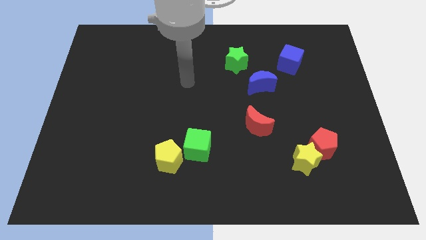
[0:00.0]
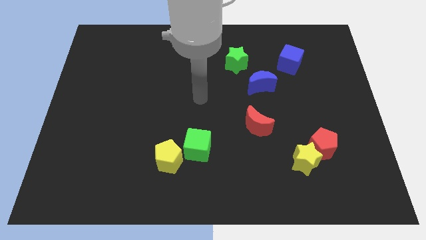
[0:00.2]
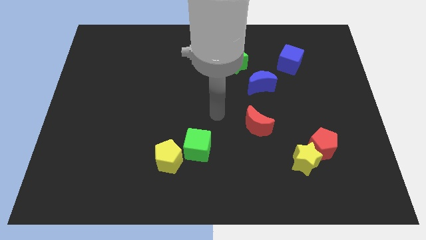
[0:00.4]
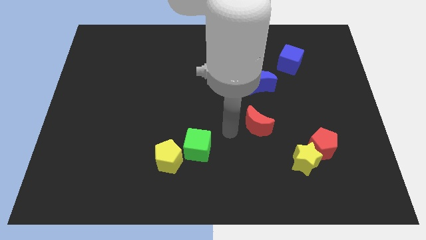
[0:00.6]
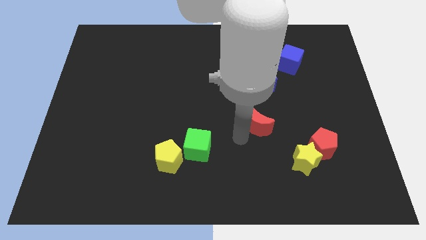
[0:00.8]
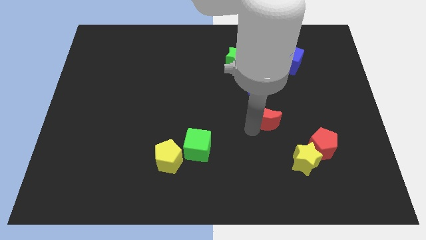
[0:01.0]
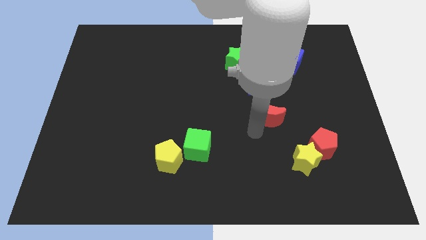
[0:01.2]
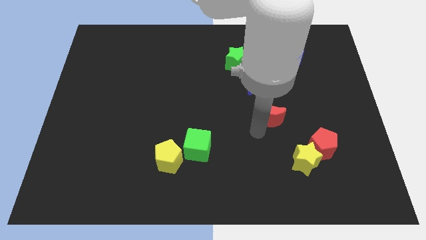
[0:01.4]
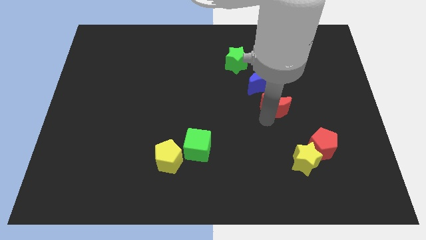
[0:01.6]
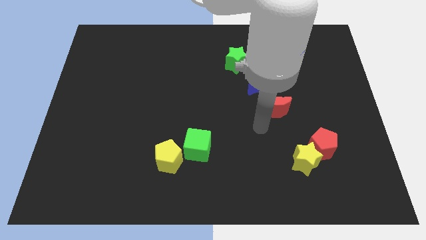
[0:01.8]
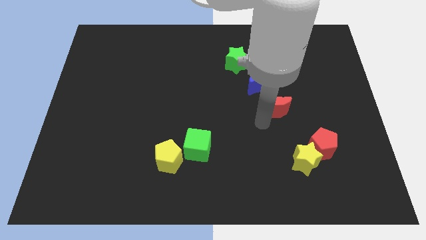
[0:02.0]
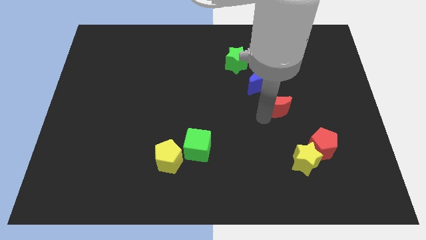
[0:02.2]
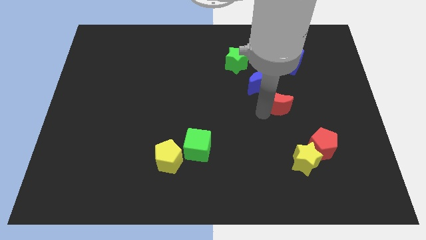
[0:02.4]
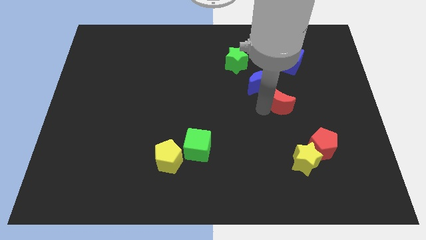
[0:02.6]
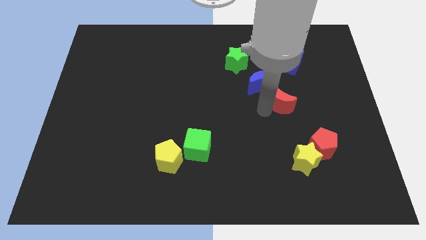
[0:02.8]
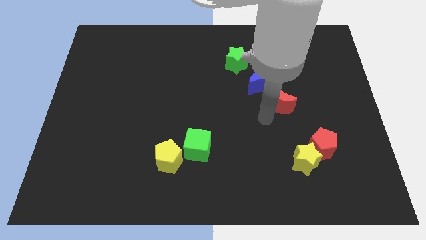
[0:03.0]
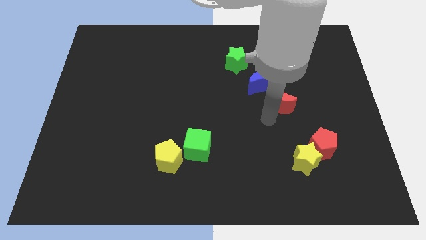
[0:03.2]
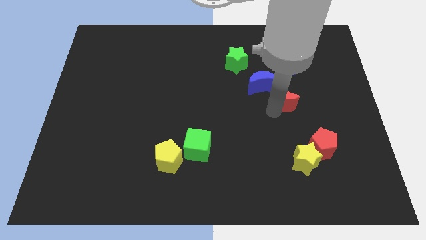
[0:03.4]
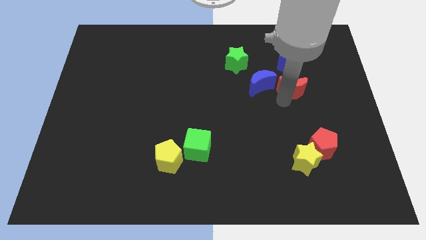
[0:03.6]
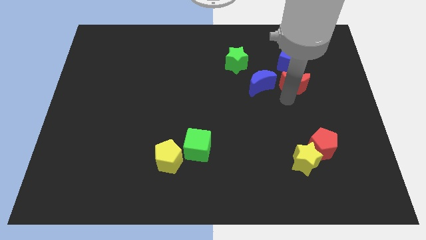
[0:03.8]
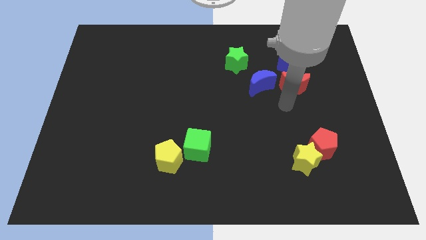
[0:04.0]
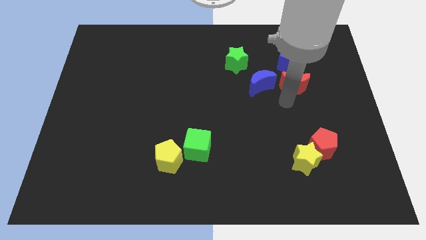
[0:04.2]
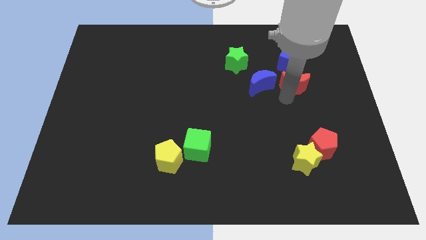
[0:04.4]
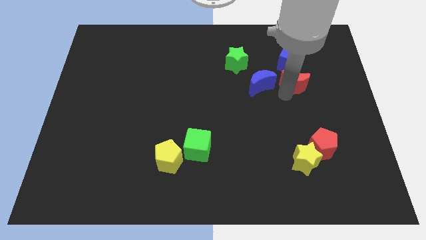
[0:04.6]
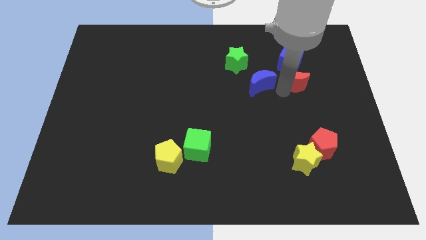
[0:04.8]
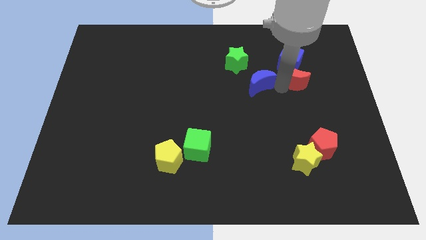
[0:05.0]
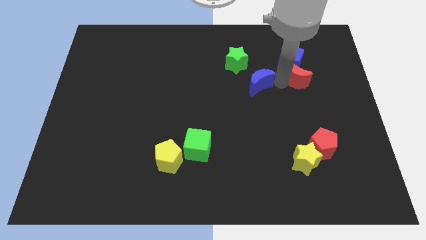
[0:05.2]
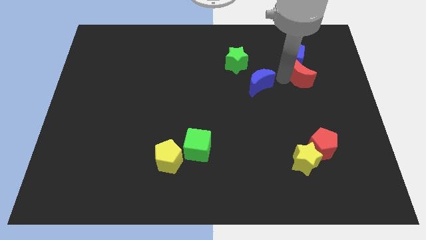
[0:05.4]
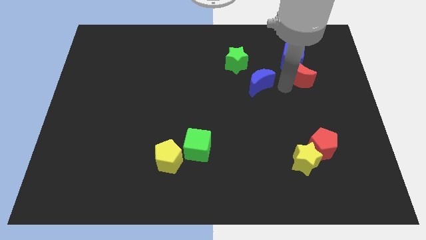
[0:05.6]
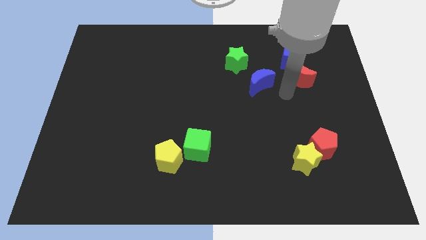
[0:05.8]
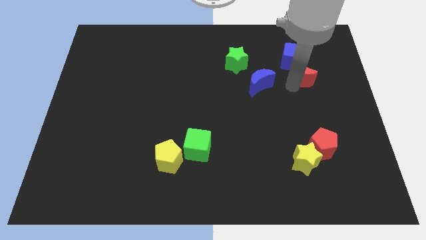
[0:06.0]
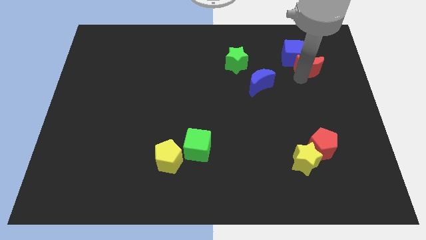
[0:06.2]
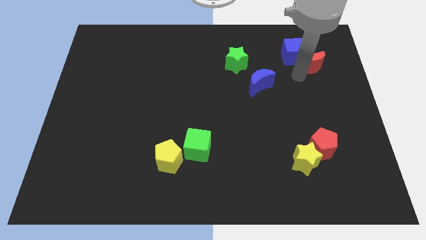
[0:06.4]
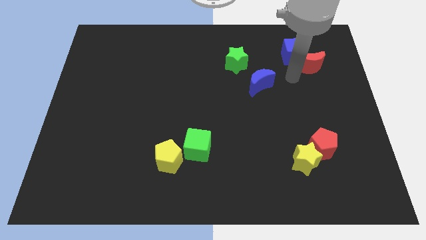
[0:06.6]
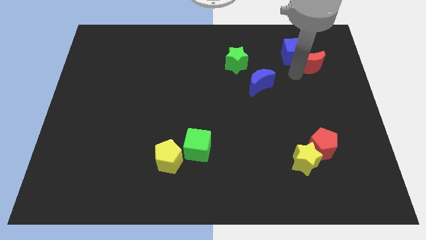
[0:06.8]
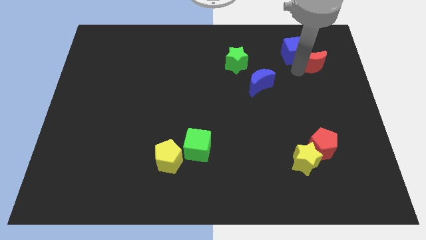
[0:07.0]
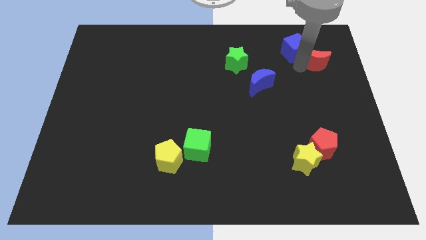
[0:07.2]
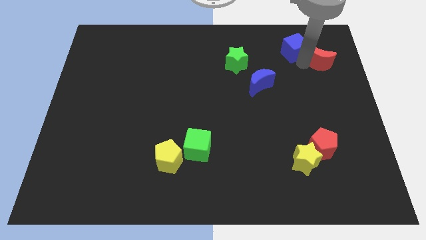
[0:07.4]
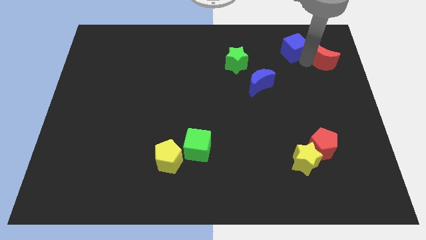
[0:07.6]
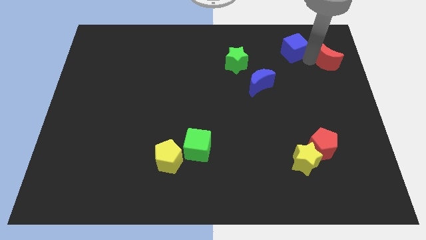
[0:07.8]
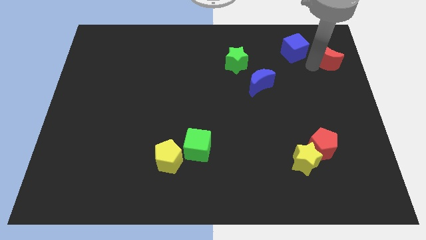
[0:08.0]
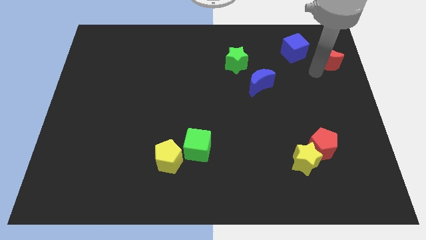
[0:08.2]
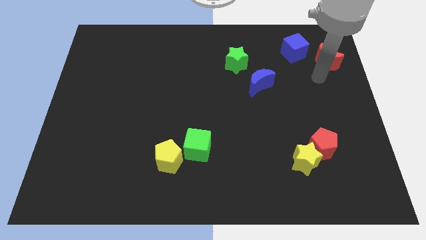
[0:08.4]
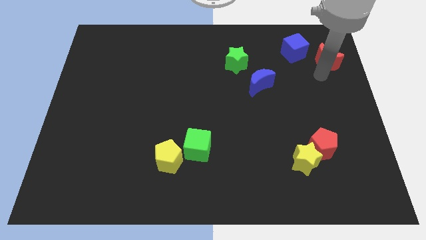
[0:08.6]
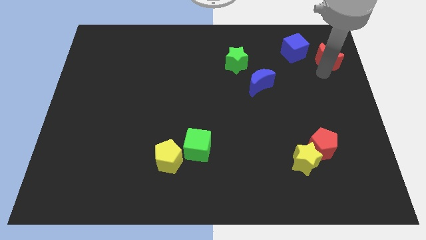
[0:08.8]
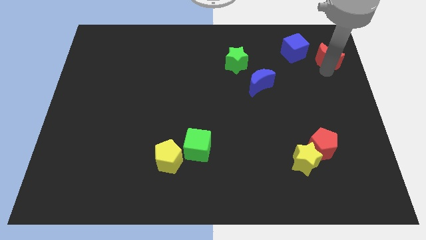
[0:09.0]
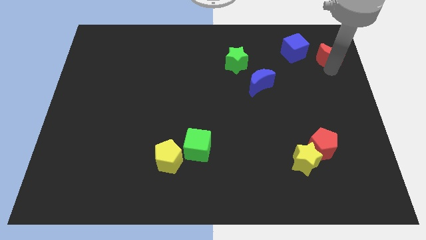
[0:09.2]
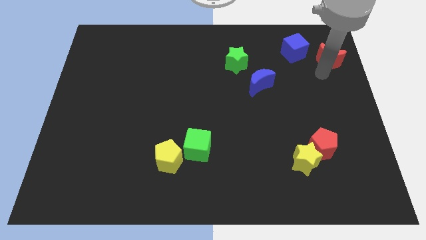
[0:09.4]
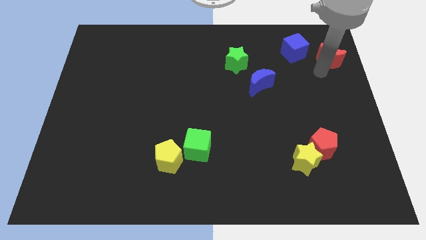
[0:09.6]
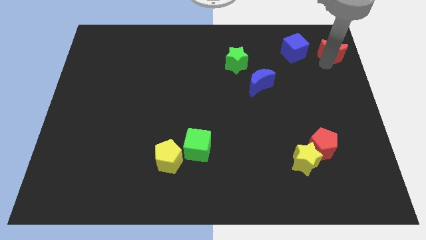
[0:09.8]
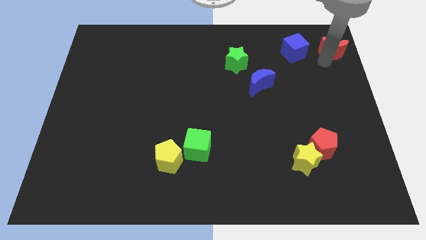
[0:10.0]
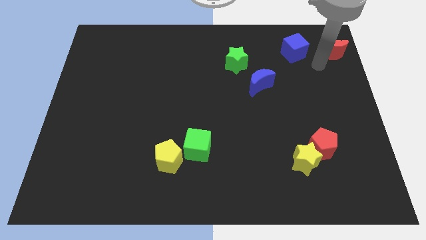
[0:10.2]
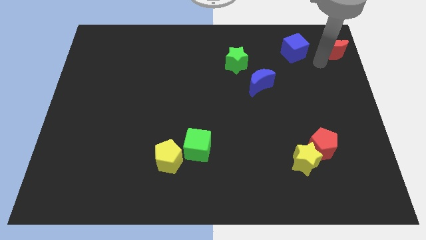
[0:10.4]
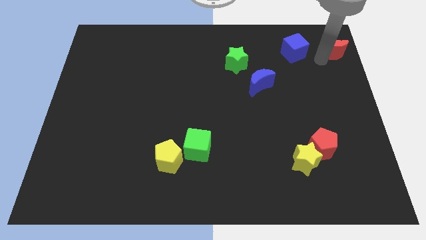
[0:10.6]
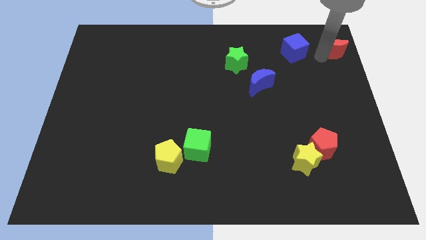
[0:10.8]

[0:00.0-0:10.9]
slide the red moon to the top right

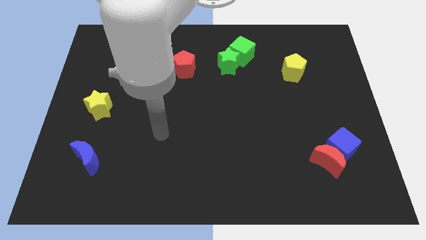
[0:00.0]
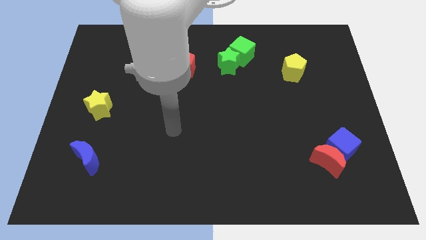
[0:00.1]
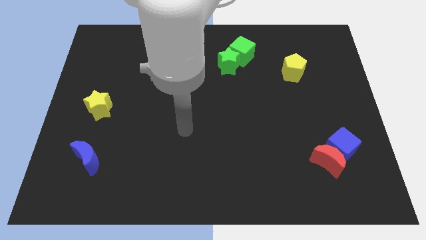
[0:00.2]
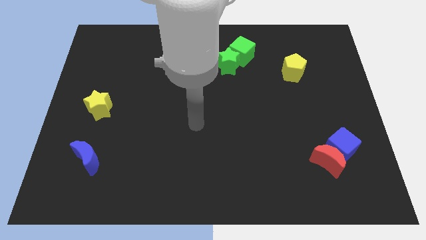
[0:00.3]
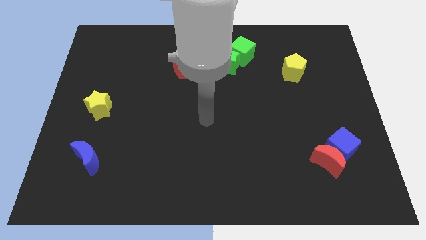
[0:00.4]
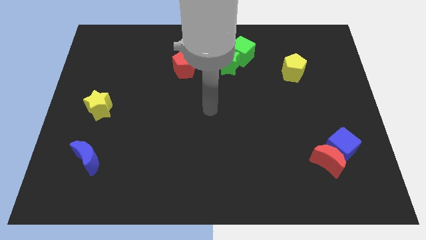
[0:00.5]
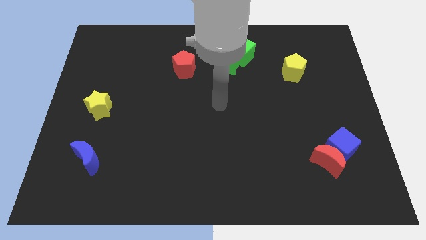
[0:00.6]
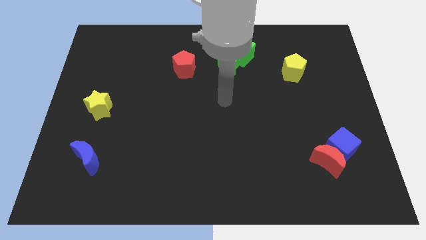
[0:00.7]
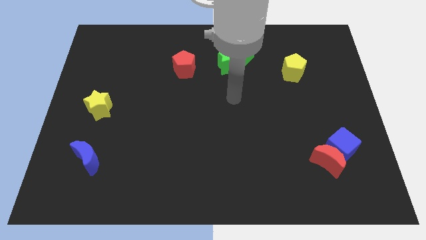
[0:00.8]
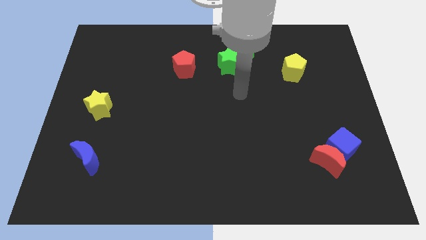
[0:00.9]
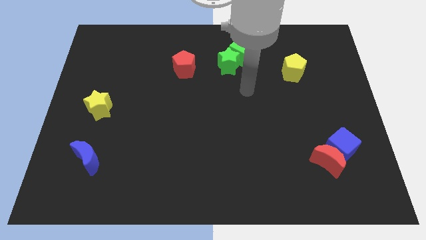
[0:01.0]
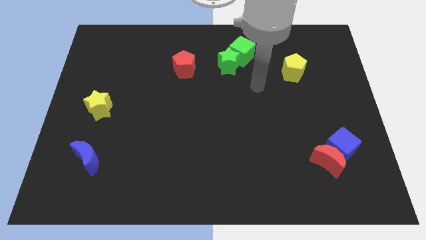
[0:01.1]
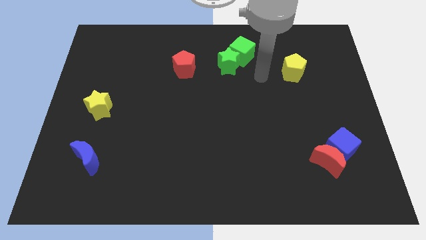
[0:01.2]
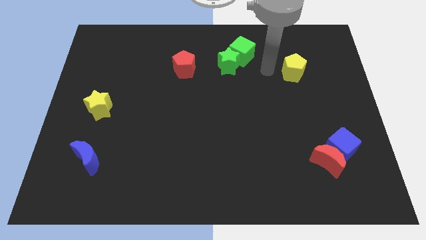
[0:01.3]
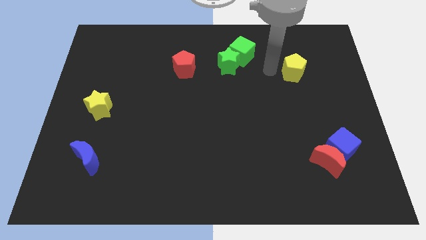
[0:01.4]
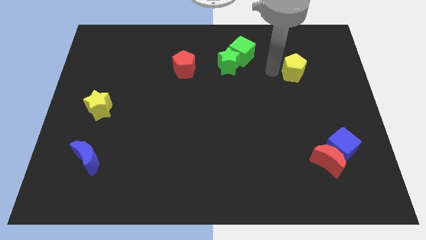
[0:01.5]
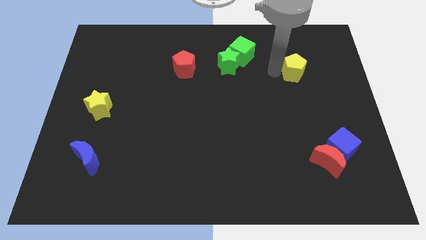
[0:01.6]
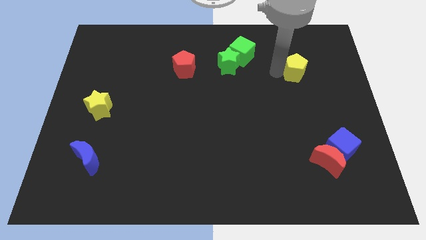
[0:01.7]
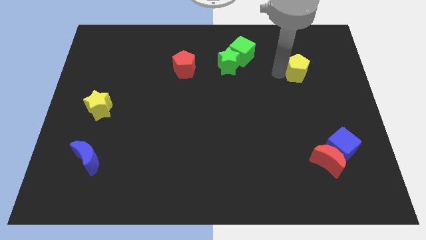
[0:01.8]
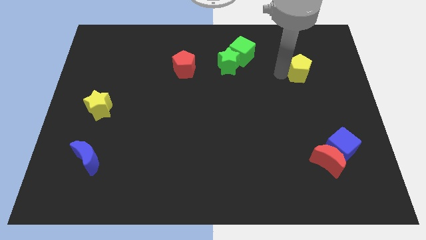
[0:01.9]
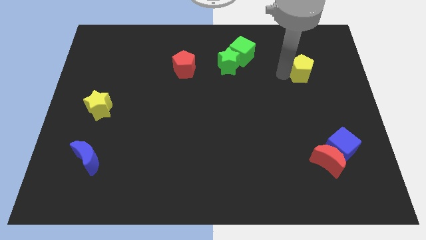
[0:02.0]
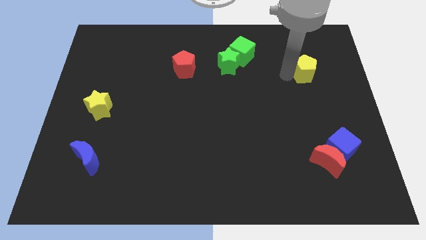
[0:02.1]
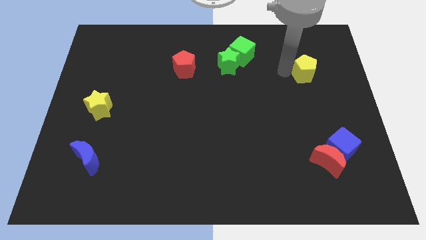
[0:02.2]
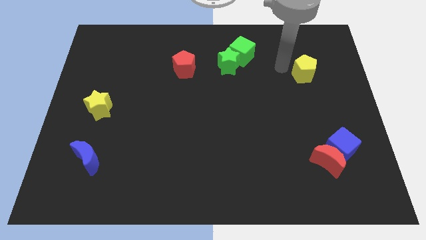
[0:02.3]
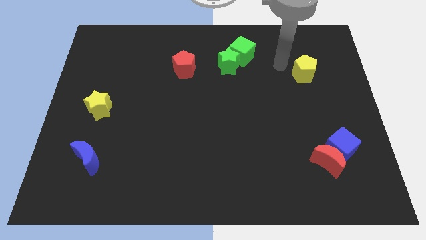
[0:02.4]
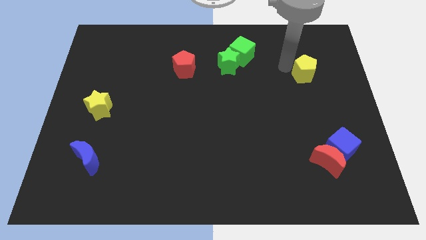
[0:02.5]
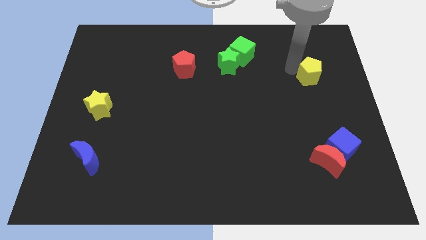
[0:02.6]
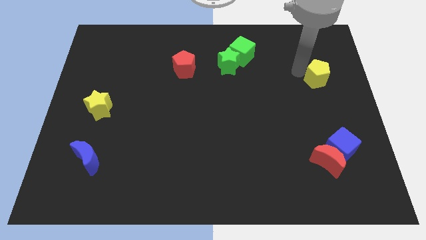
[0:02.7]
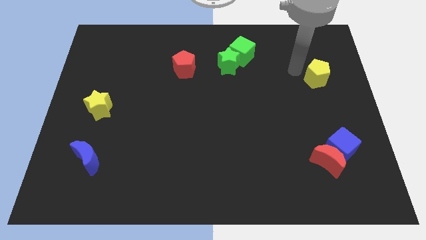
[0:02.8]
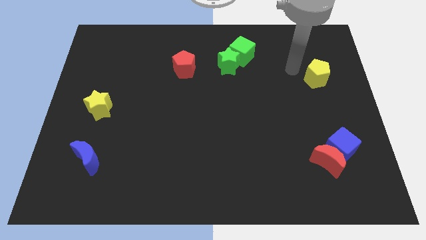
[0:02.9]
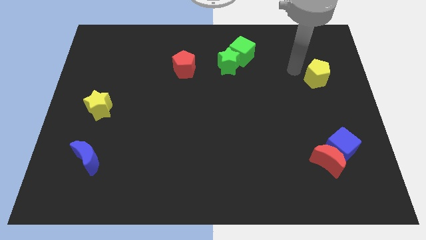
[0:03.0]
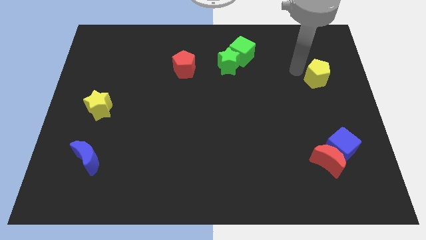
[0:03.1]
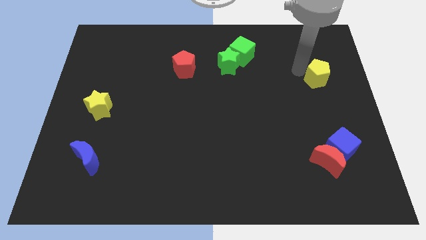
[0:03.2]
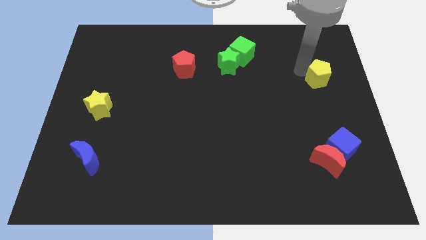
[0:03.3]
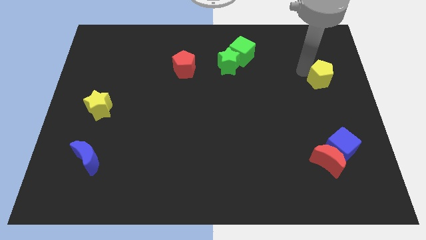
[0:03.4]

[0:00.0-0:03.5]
put the yellow pentagon to the right side
